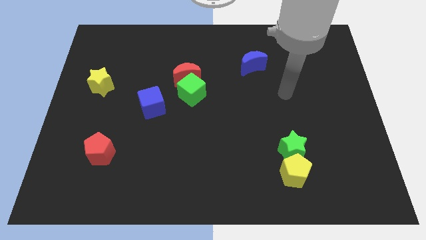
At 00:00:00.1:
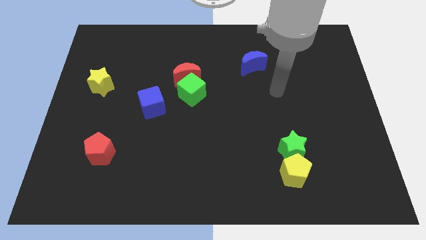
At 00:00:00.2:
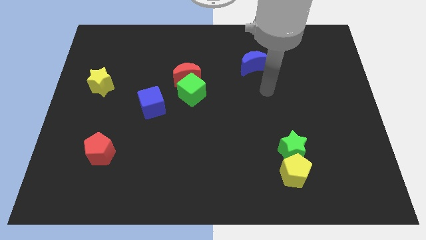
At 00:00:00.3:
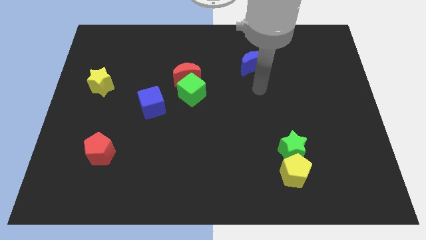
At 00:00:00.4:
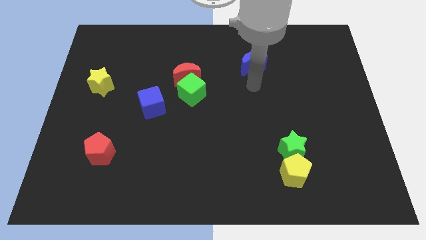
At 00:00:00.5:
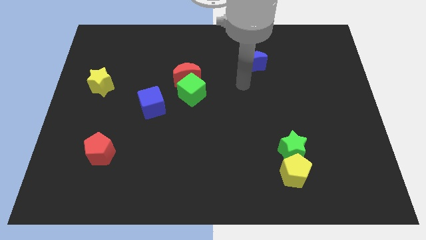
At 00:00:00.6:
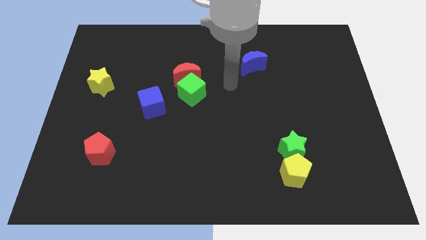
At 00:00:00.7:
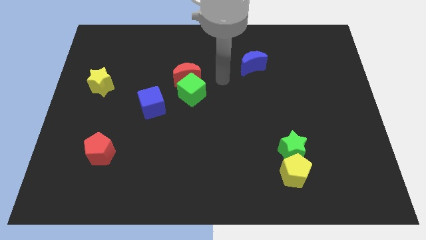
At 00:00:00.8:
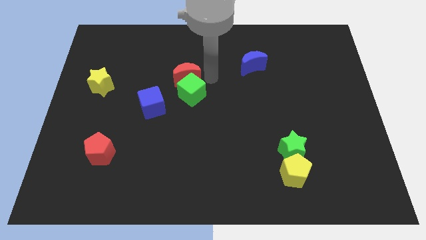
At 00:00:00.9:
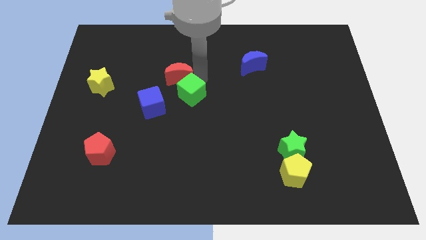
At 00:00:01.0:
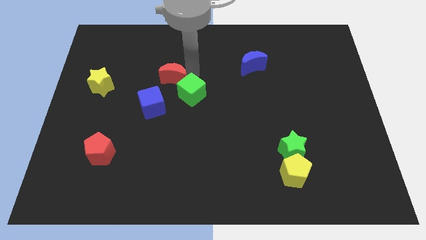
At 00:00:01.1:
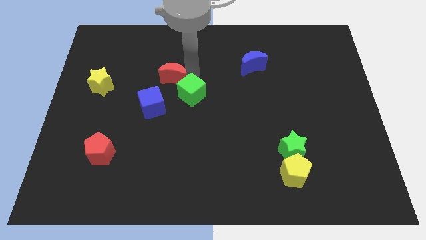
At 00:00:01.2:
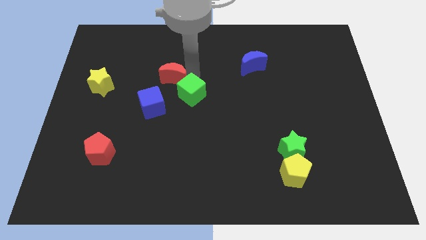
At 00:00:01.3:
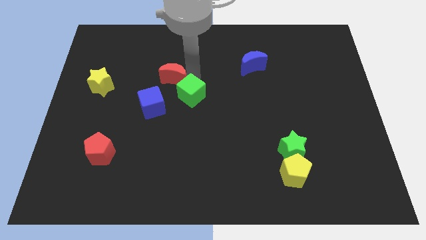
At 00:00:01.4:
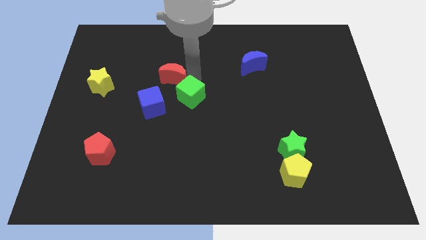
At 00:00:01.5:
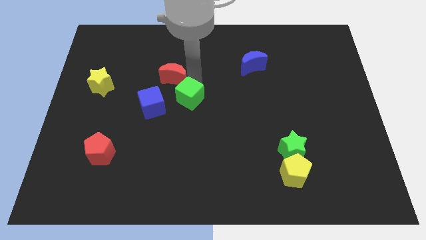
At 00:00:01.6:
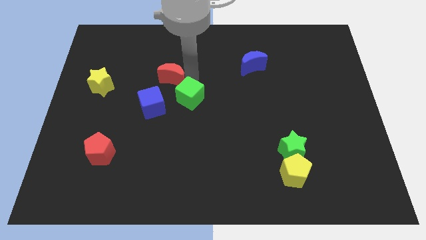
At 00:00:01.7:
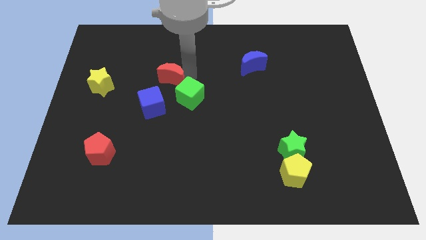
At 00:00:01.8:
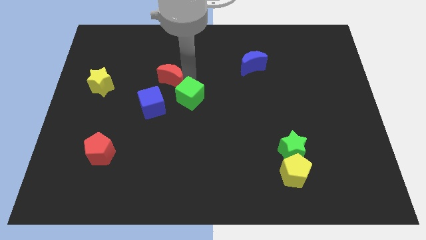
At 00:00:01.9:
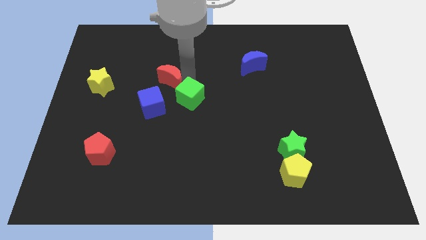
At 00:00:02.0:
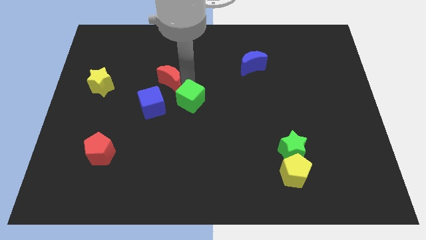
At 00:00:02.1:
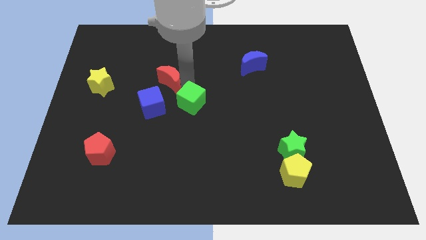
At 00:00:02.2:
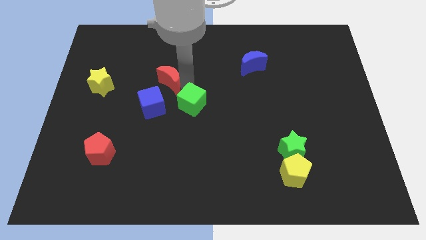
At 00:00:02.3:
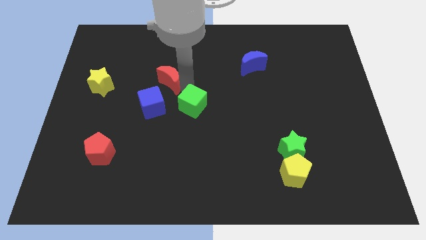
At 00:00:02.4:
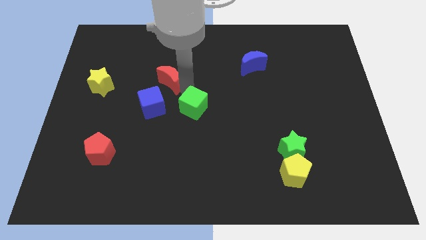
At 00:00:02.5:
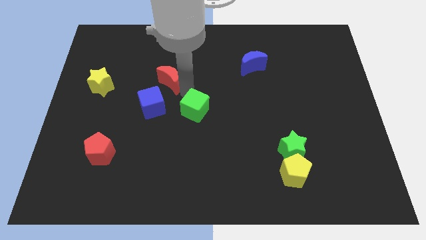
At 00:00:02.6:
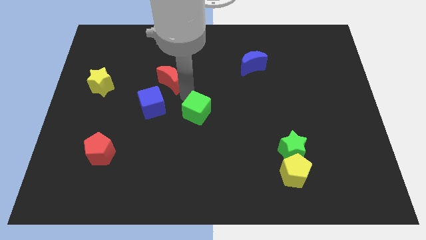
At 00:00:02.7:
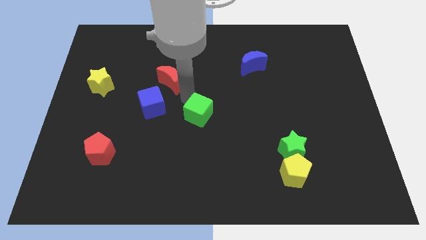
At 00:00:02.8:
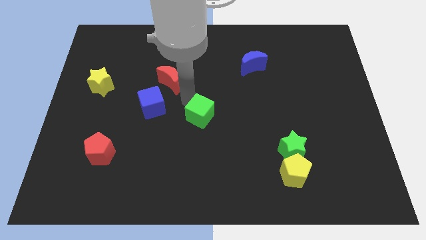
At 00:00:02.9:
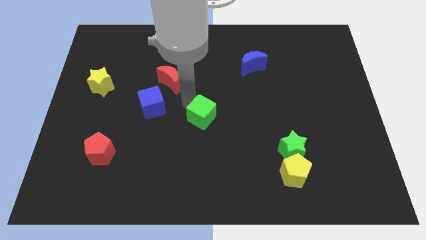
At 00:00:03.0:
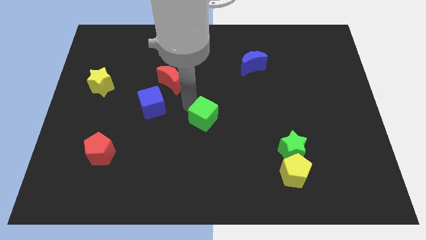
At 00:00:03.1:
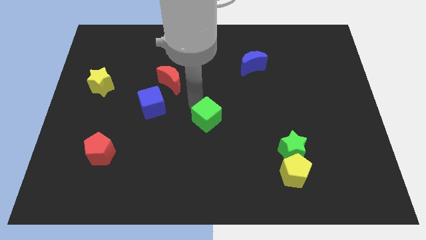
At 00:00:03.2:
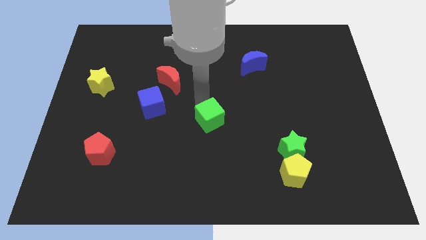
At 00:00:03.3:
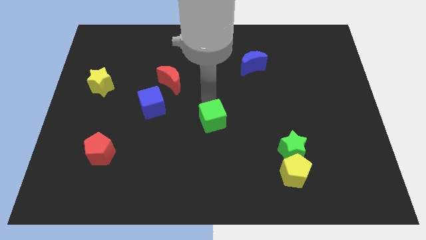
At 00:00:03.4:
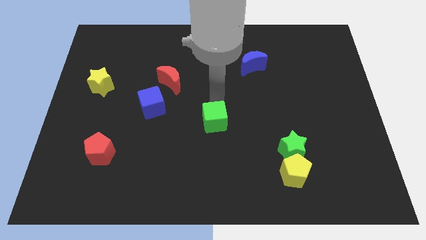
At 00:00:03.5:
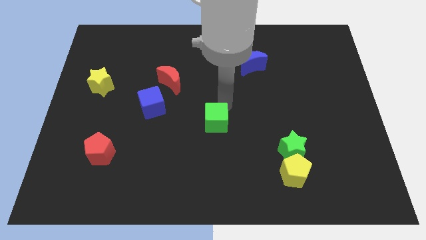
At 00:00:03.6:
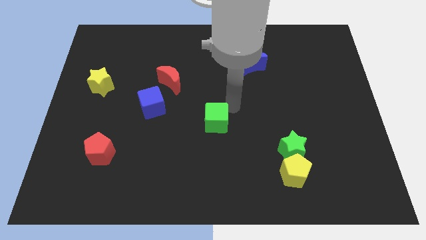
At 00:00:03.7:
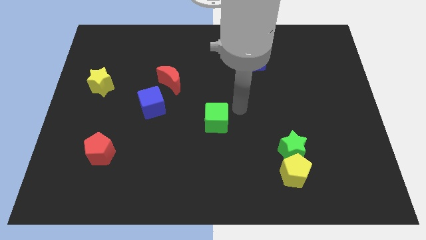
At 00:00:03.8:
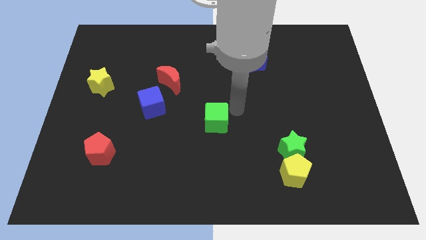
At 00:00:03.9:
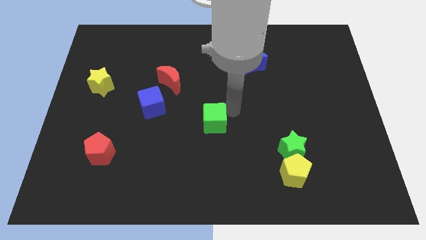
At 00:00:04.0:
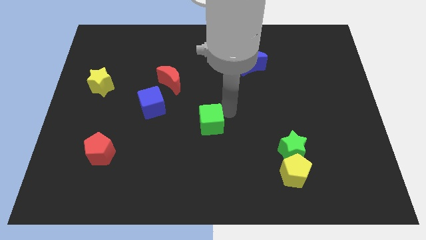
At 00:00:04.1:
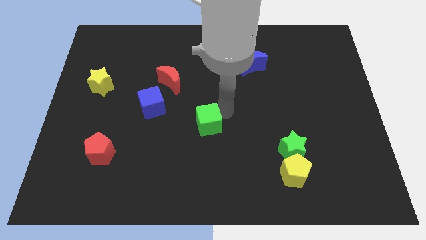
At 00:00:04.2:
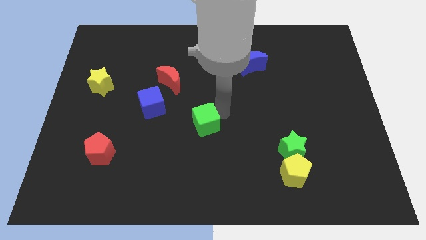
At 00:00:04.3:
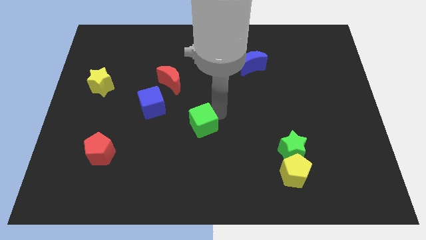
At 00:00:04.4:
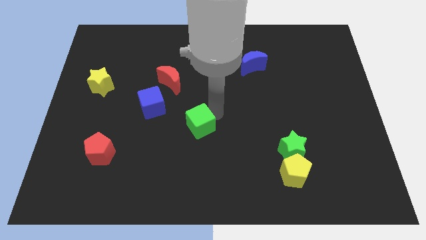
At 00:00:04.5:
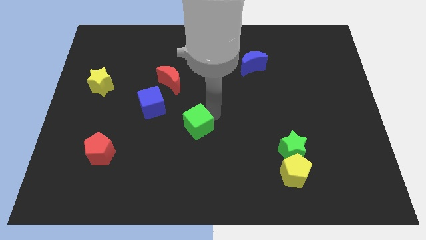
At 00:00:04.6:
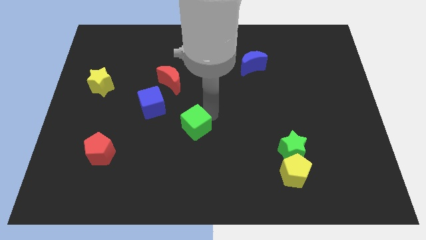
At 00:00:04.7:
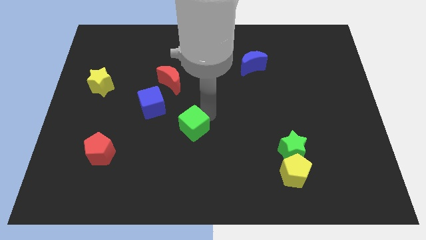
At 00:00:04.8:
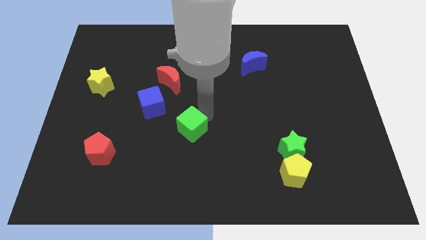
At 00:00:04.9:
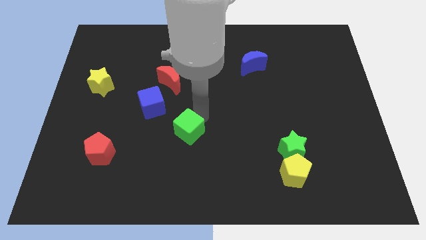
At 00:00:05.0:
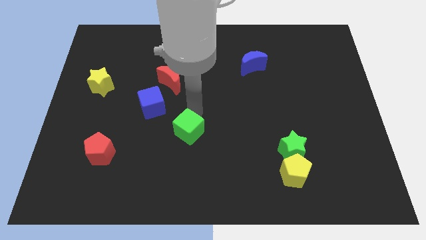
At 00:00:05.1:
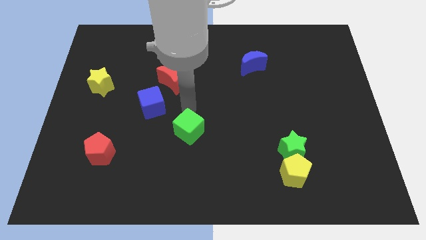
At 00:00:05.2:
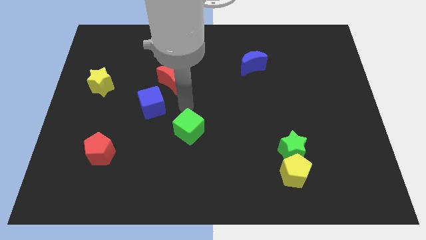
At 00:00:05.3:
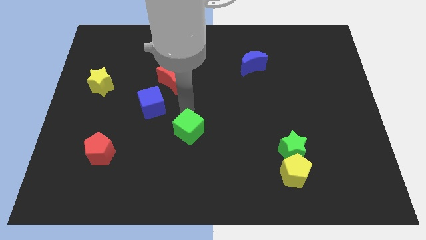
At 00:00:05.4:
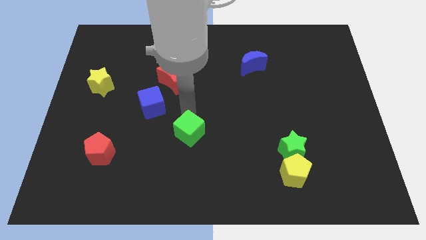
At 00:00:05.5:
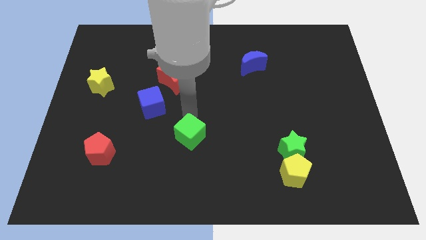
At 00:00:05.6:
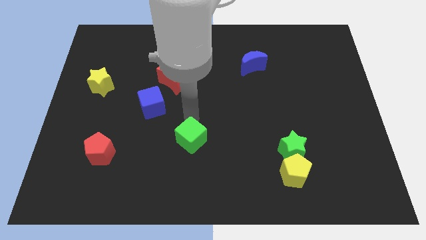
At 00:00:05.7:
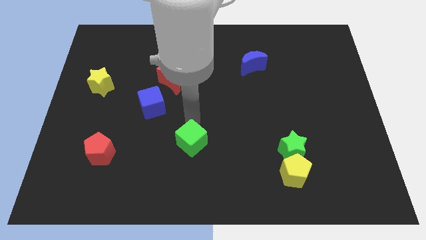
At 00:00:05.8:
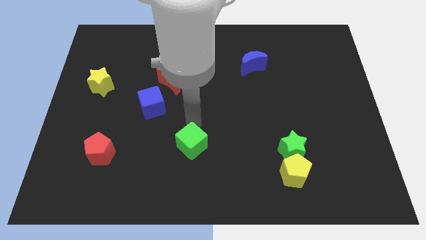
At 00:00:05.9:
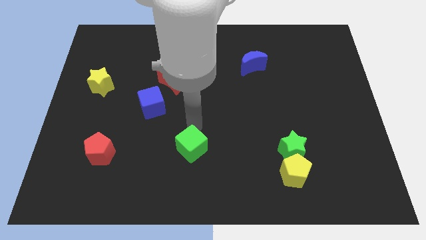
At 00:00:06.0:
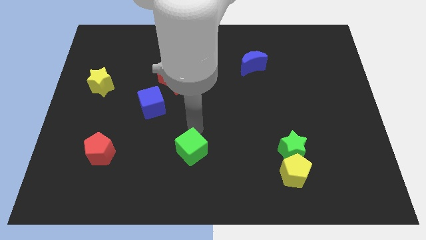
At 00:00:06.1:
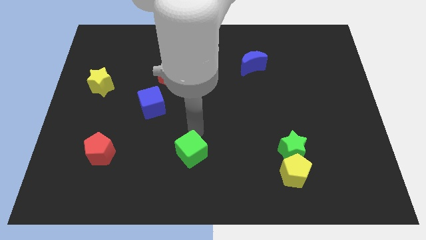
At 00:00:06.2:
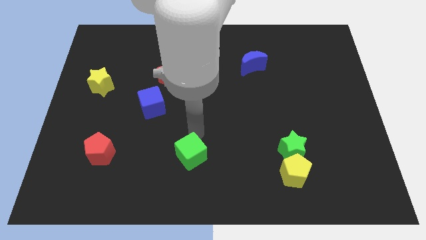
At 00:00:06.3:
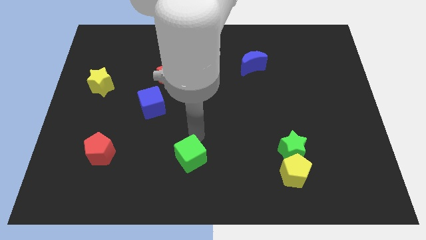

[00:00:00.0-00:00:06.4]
move the green cube to the bottom side
